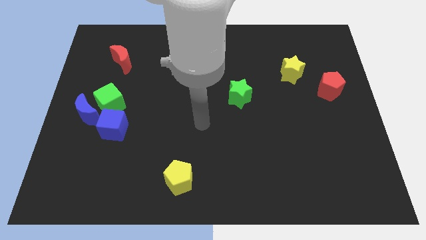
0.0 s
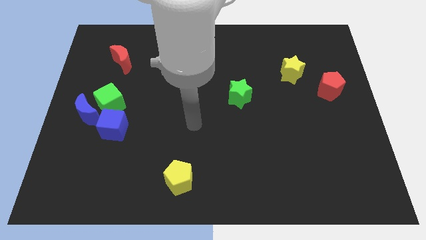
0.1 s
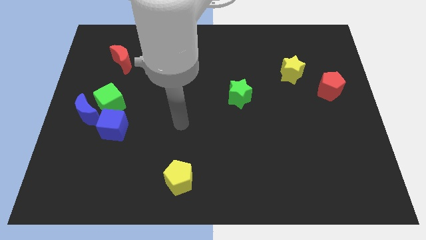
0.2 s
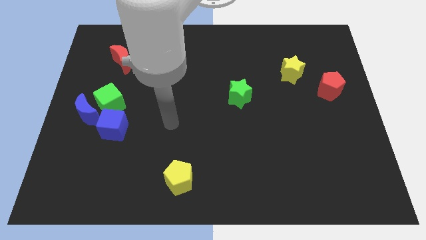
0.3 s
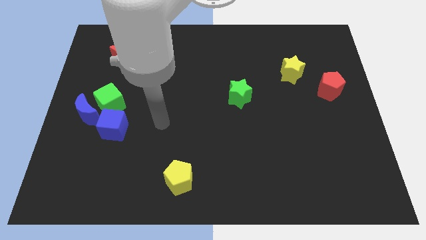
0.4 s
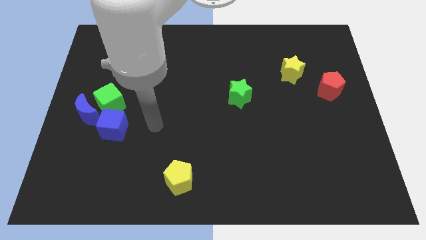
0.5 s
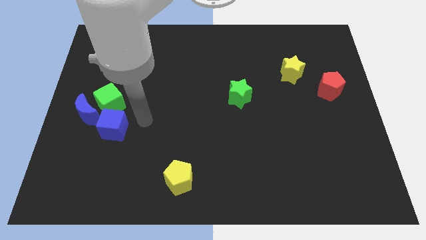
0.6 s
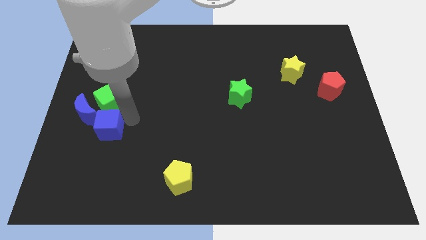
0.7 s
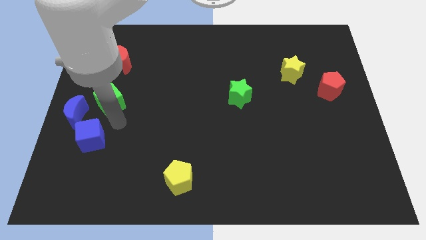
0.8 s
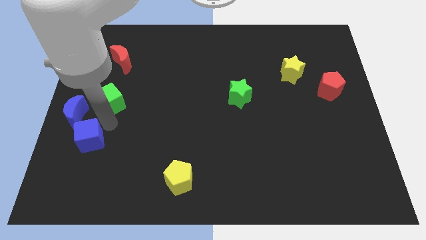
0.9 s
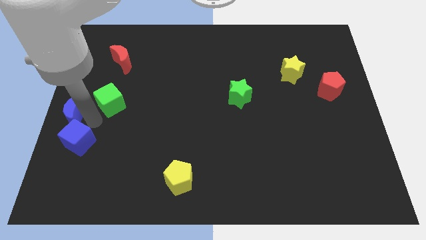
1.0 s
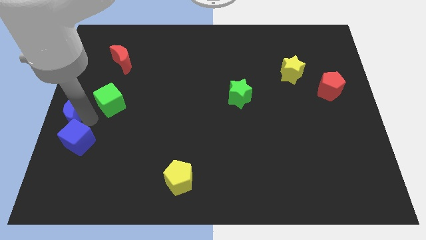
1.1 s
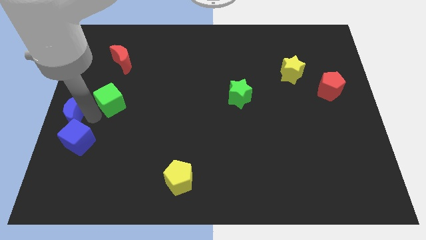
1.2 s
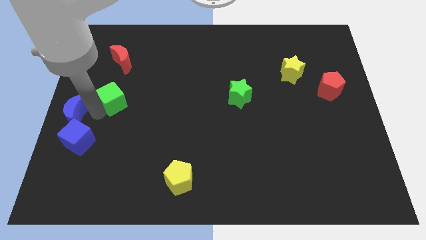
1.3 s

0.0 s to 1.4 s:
move the green cube away from the blue moon and blue cube

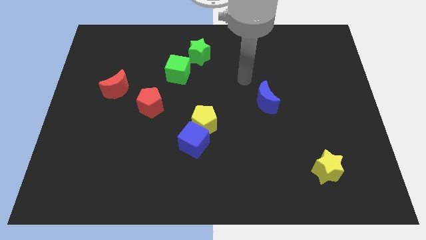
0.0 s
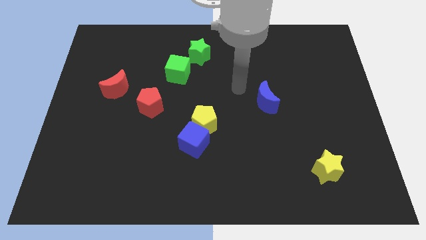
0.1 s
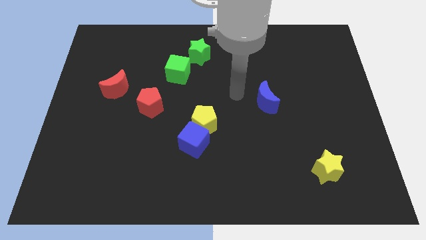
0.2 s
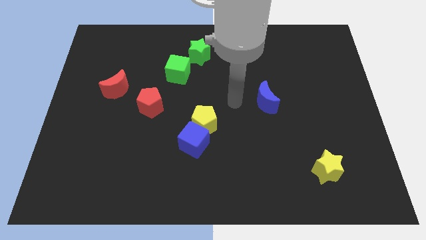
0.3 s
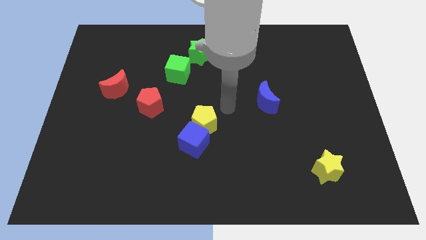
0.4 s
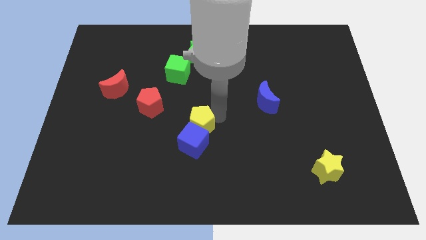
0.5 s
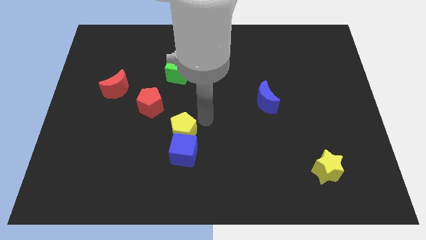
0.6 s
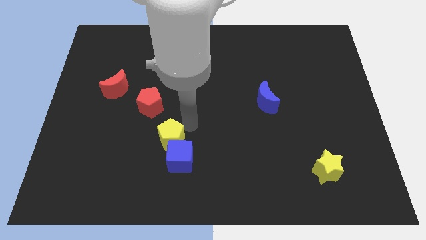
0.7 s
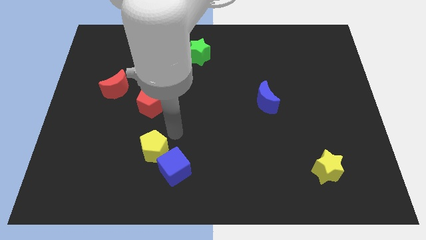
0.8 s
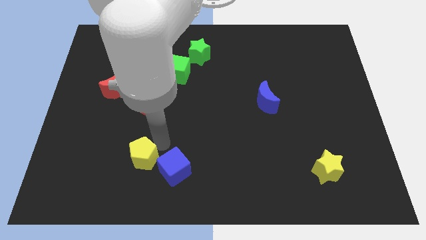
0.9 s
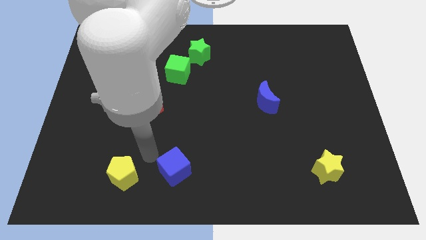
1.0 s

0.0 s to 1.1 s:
pull the blue cube apart from the yellow pentagon

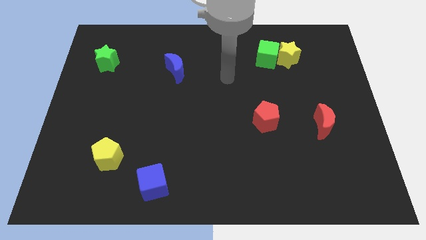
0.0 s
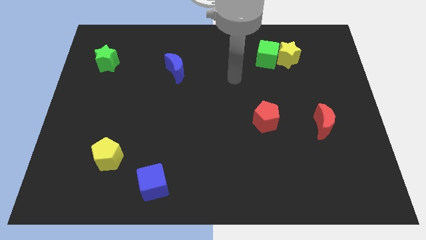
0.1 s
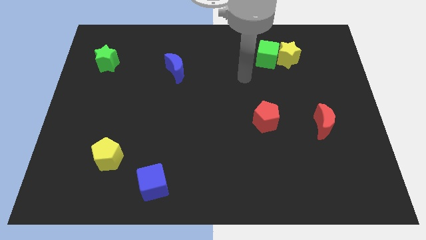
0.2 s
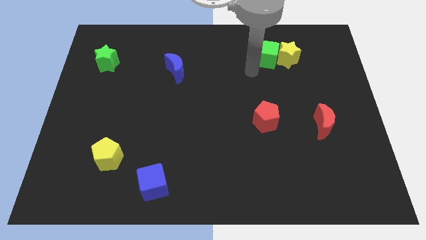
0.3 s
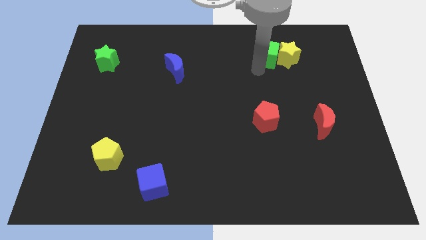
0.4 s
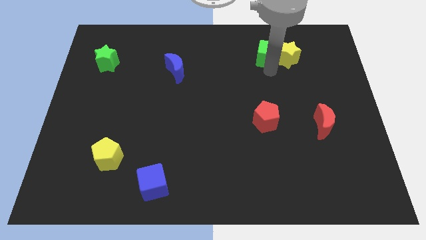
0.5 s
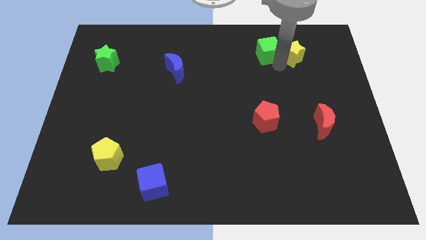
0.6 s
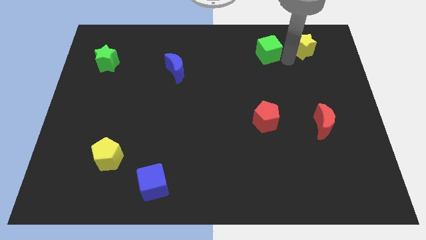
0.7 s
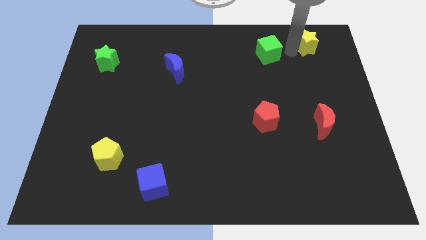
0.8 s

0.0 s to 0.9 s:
pull the green cube apart from the yellow star

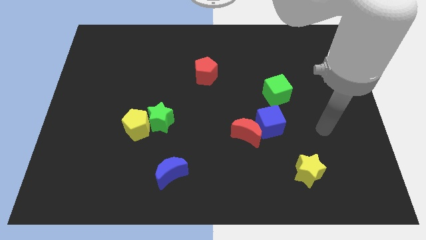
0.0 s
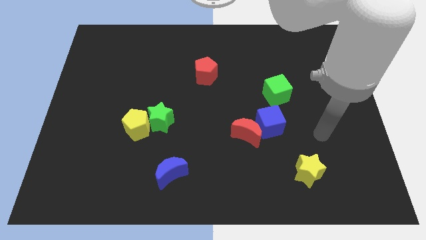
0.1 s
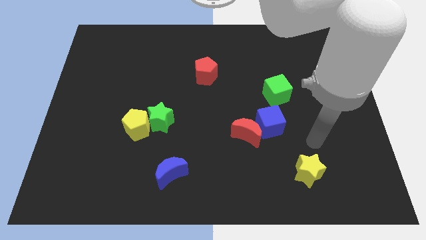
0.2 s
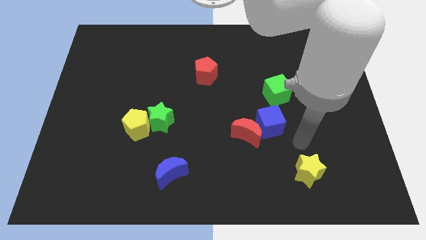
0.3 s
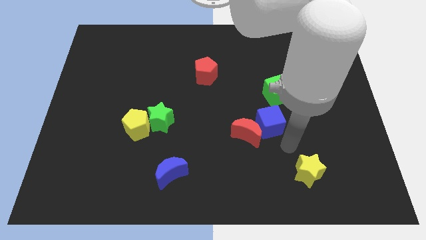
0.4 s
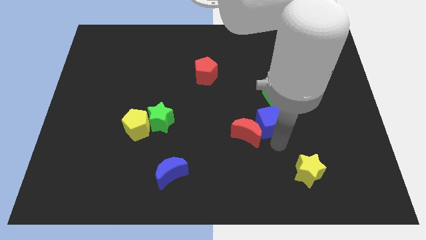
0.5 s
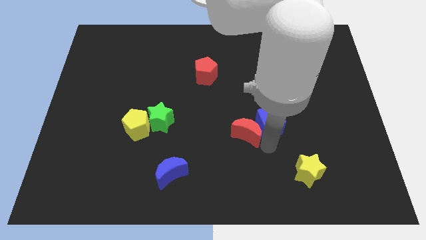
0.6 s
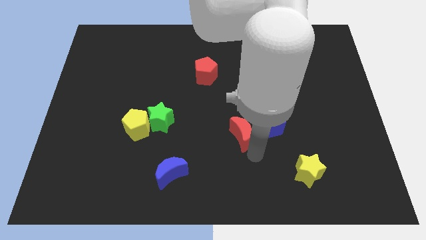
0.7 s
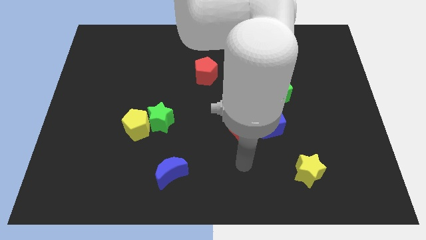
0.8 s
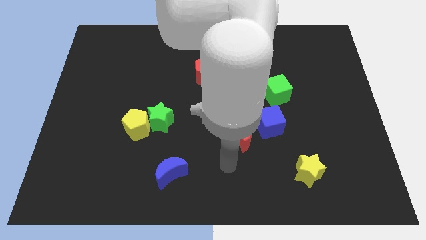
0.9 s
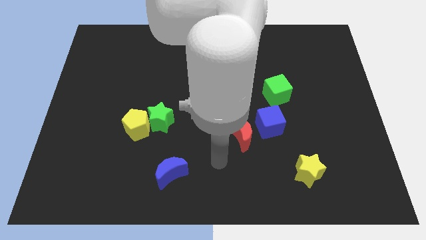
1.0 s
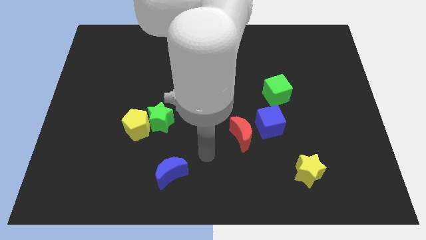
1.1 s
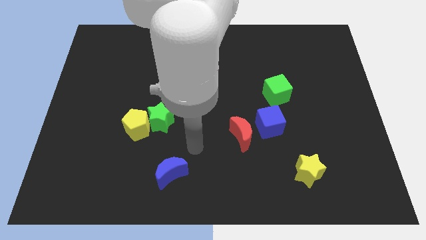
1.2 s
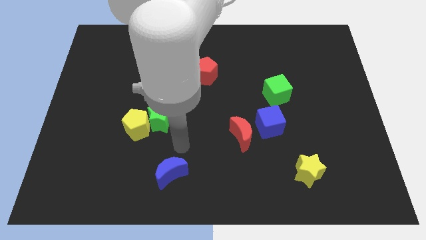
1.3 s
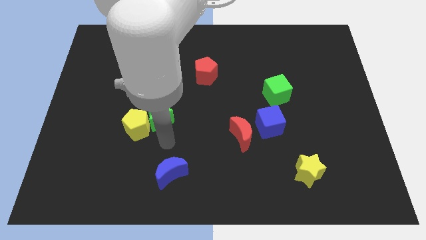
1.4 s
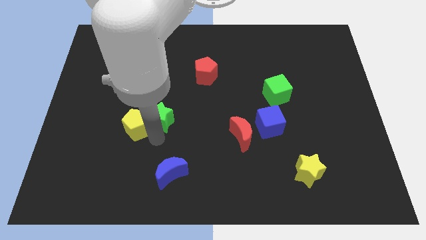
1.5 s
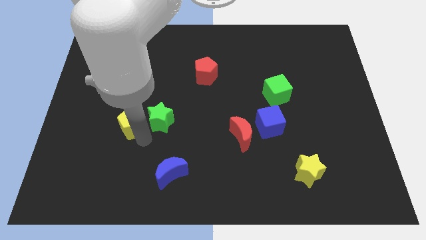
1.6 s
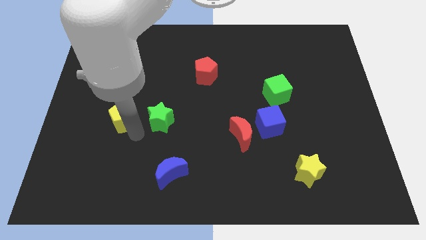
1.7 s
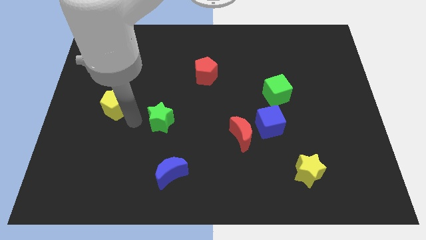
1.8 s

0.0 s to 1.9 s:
pull the green star apart from the yellow pentagon

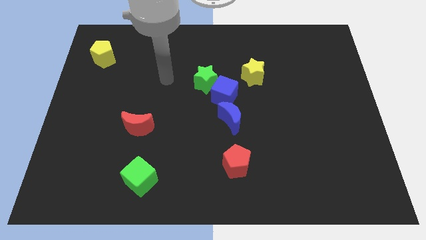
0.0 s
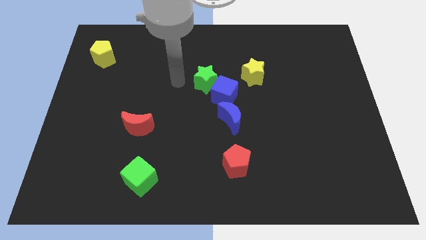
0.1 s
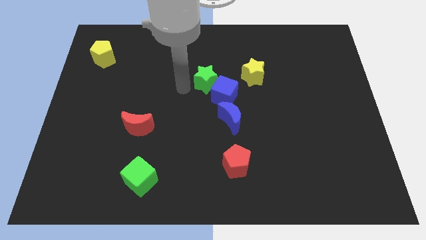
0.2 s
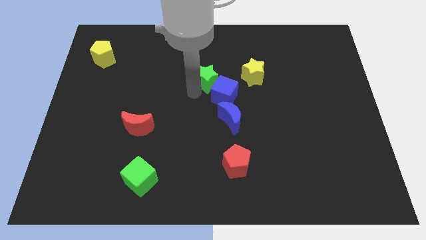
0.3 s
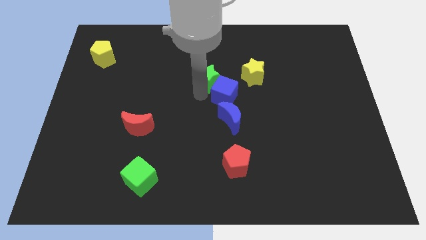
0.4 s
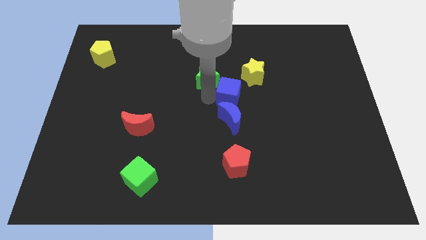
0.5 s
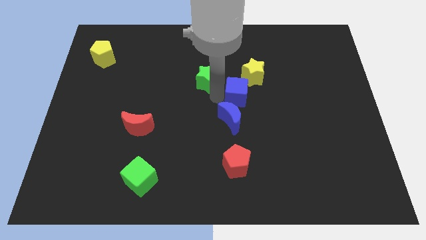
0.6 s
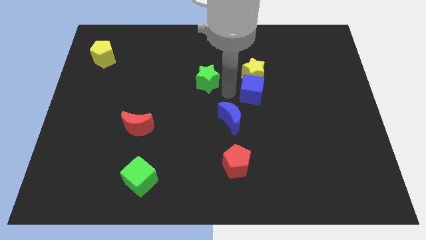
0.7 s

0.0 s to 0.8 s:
move the green star away from the blue cube

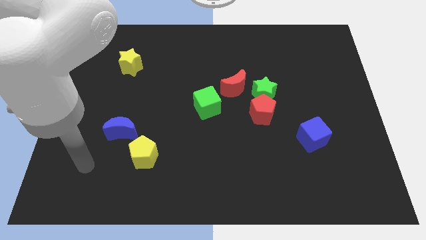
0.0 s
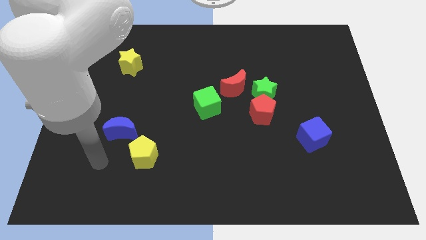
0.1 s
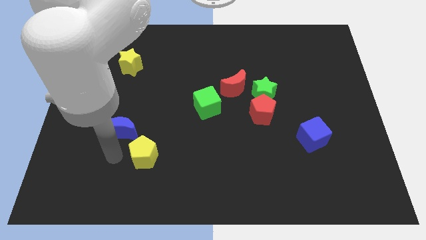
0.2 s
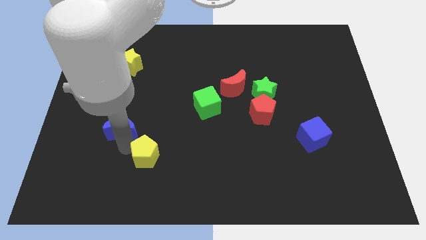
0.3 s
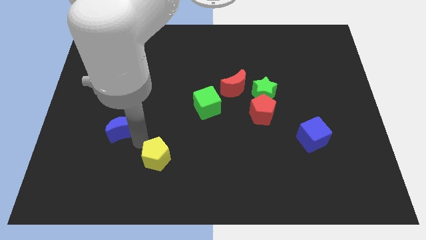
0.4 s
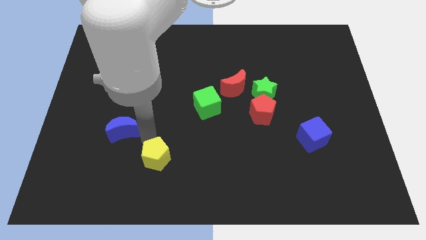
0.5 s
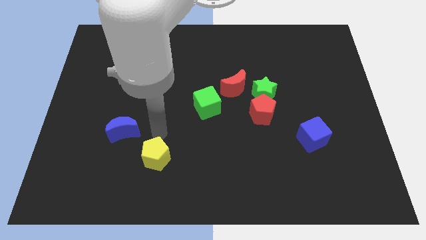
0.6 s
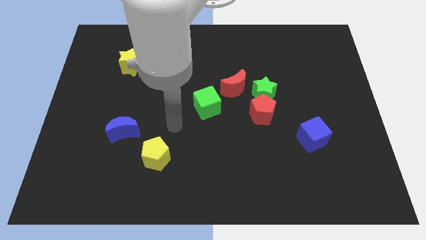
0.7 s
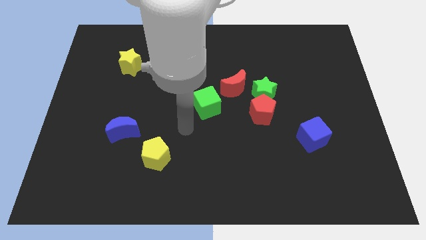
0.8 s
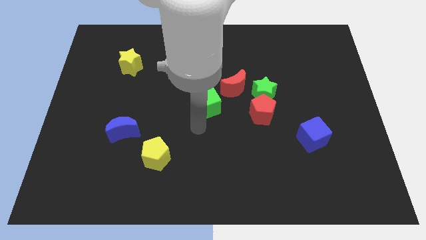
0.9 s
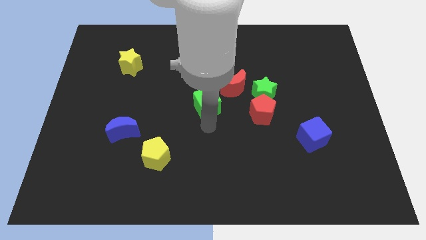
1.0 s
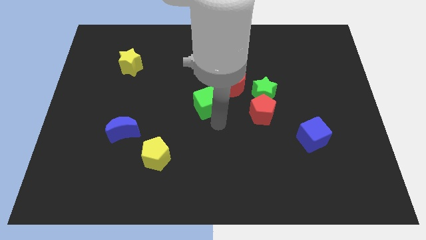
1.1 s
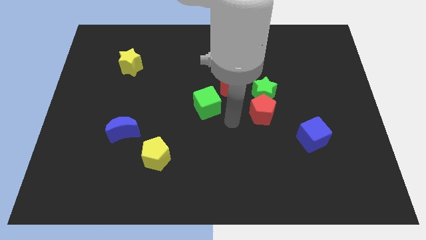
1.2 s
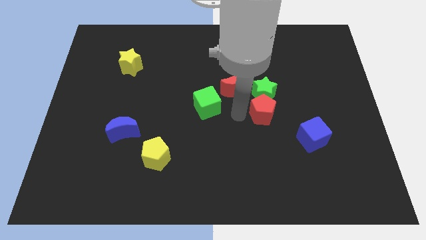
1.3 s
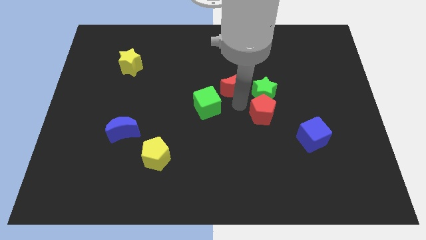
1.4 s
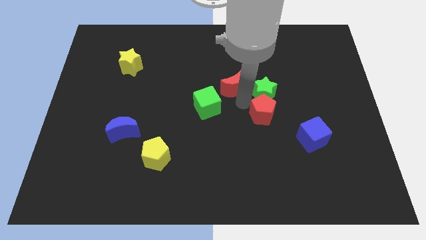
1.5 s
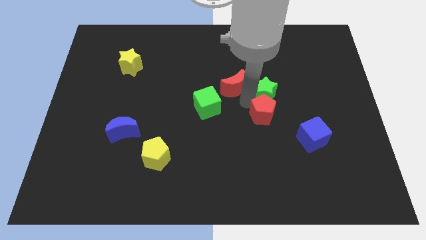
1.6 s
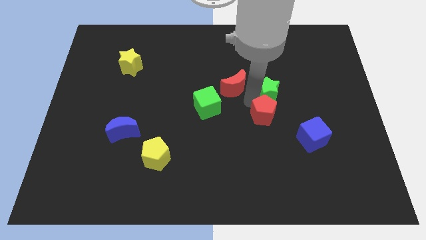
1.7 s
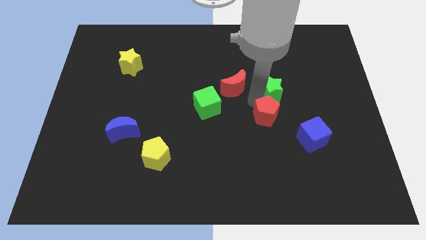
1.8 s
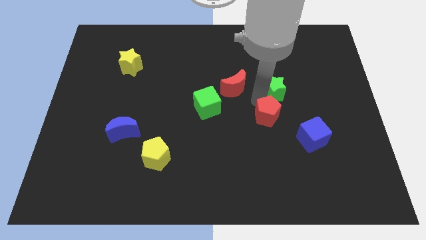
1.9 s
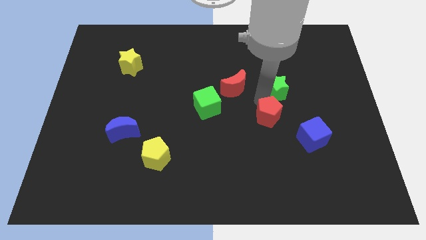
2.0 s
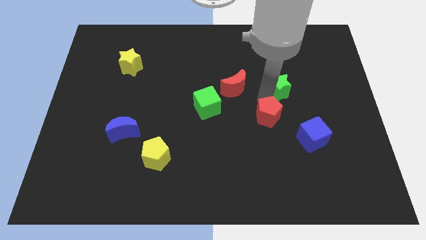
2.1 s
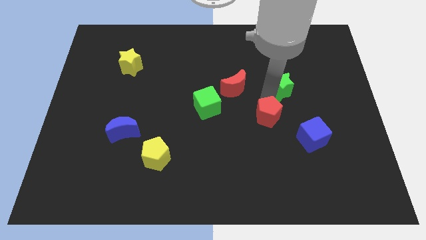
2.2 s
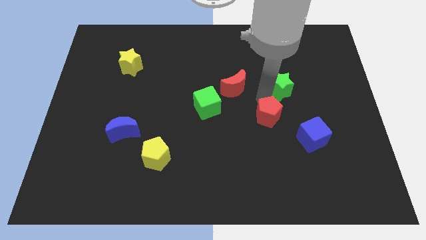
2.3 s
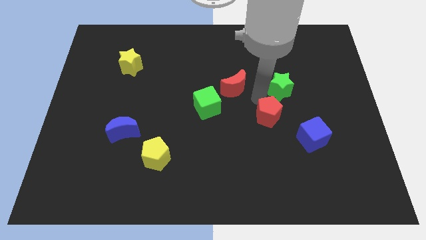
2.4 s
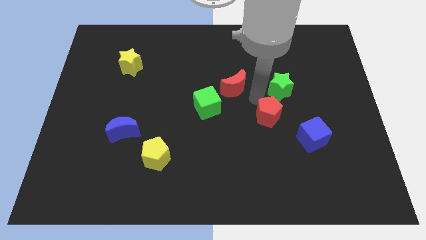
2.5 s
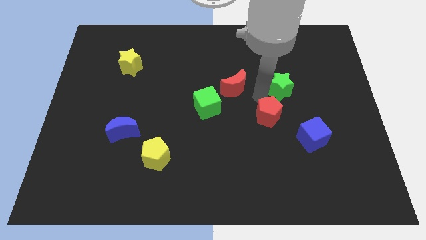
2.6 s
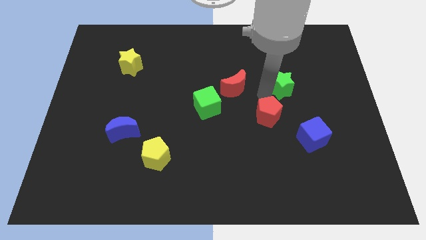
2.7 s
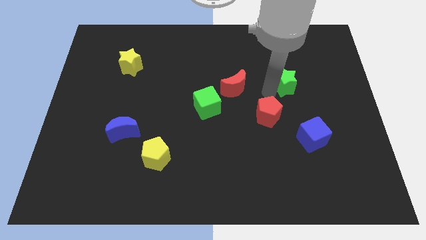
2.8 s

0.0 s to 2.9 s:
separate the green star from the red pentagon and red moon

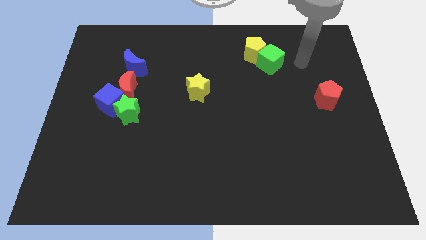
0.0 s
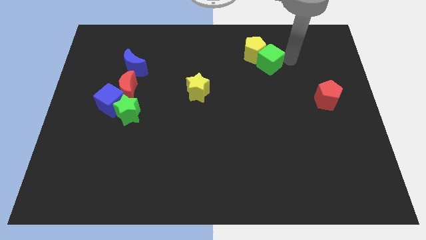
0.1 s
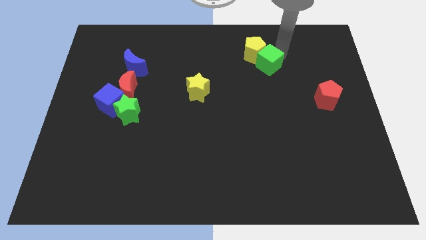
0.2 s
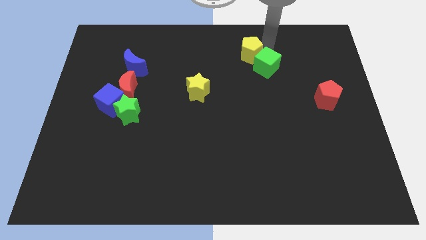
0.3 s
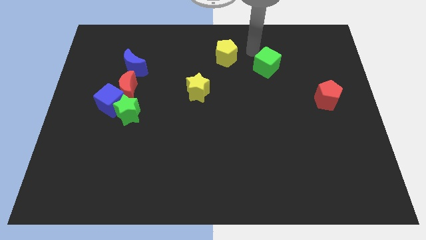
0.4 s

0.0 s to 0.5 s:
move the green cube away from the yellow pentagon

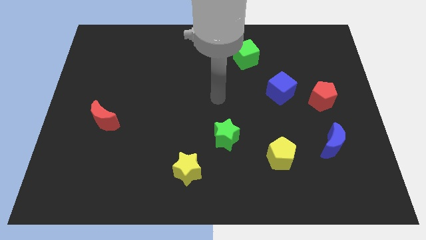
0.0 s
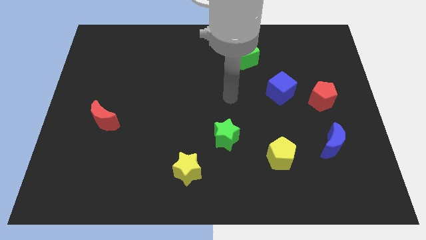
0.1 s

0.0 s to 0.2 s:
pull the red pentagon apart from the blue cube
